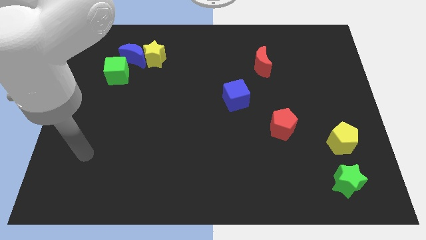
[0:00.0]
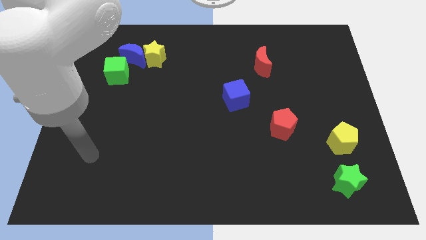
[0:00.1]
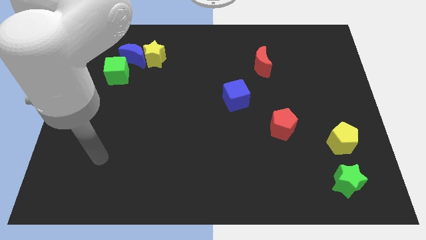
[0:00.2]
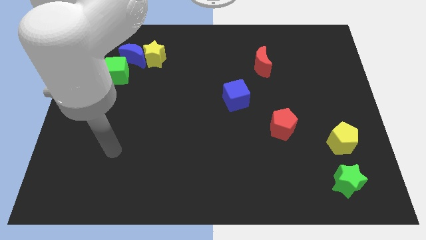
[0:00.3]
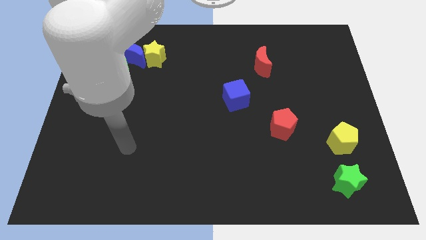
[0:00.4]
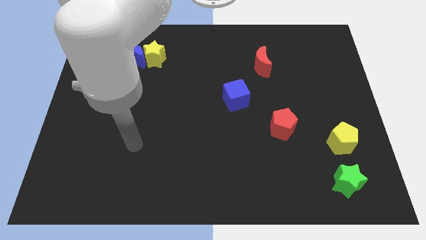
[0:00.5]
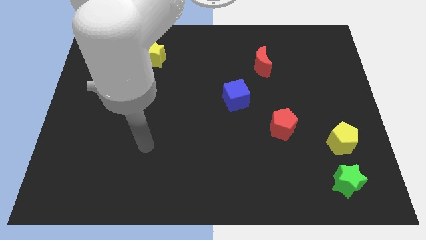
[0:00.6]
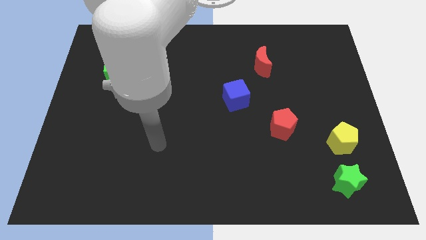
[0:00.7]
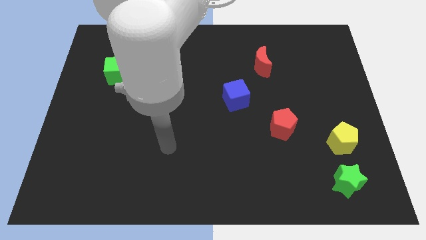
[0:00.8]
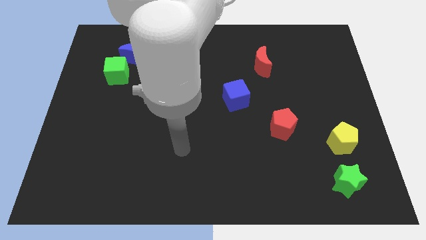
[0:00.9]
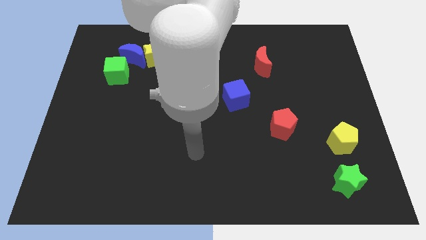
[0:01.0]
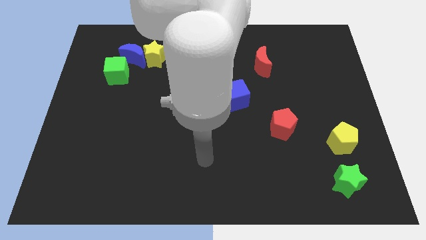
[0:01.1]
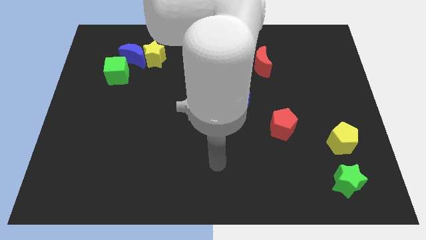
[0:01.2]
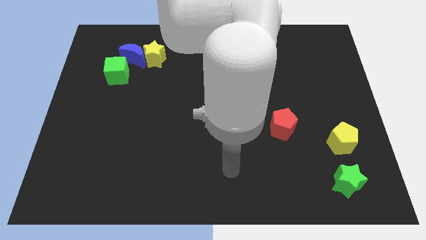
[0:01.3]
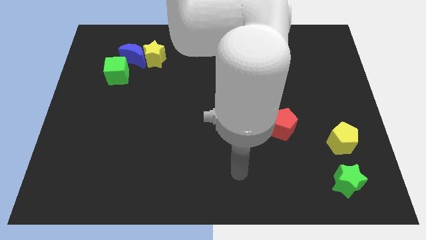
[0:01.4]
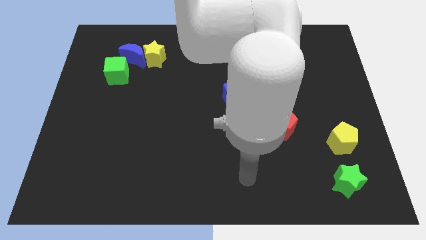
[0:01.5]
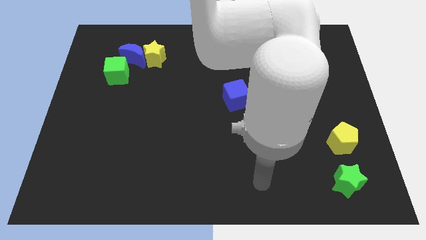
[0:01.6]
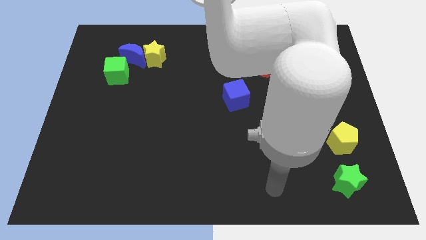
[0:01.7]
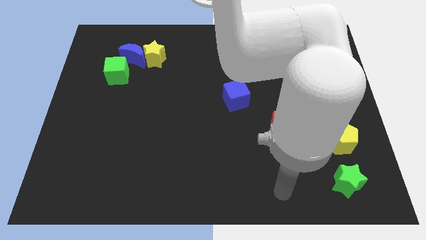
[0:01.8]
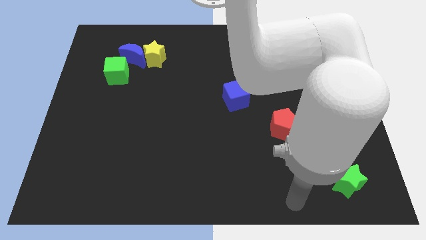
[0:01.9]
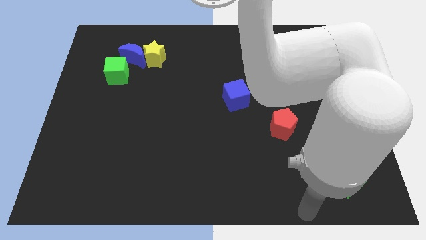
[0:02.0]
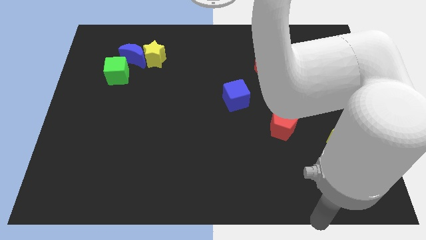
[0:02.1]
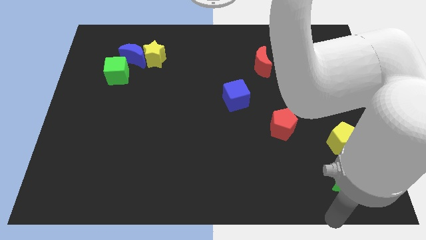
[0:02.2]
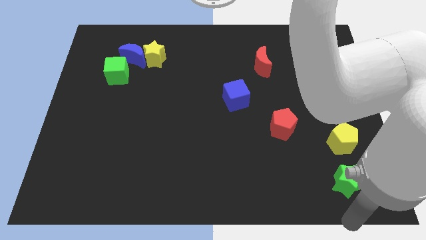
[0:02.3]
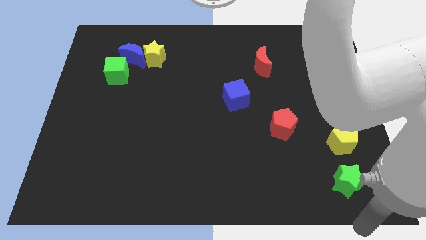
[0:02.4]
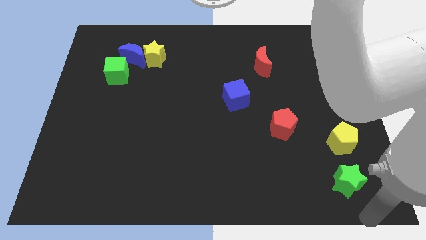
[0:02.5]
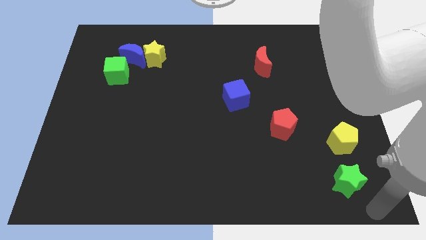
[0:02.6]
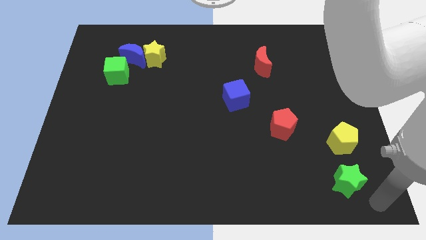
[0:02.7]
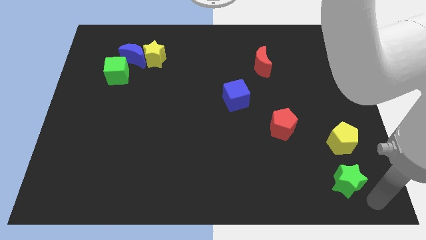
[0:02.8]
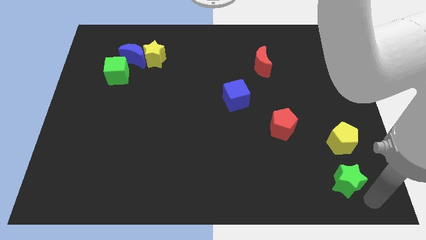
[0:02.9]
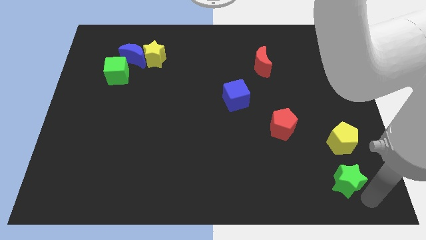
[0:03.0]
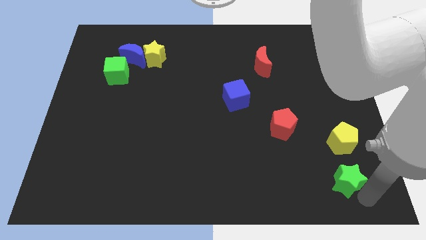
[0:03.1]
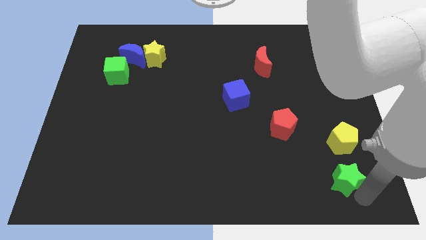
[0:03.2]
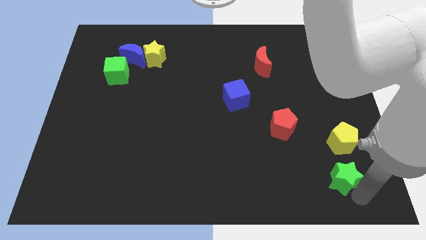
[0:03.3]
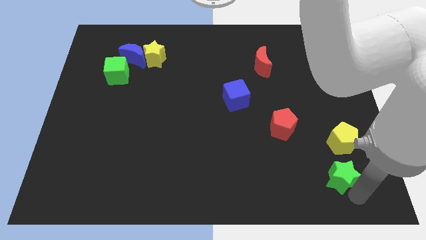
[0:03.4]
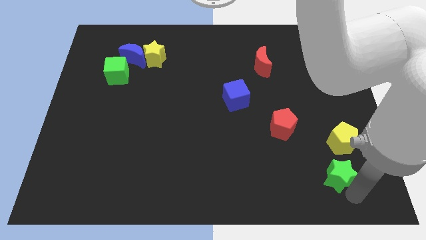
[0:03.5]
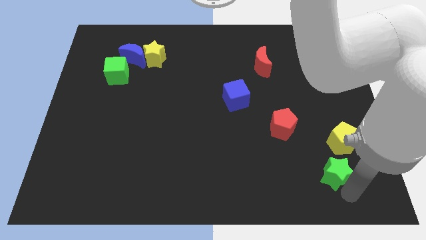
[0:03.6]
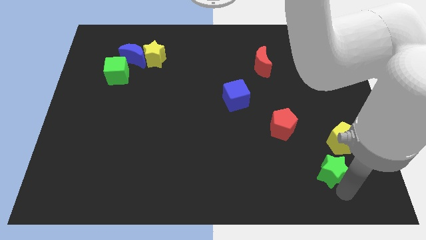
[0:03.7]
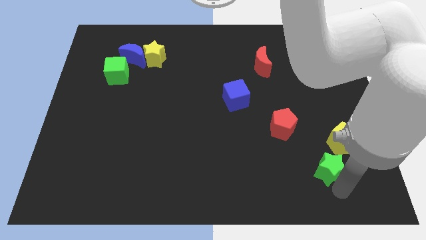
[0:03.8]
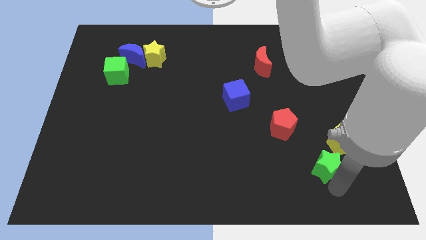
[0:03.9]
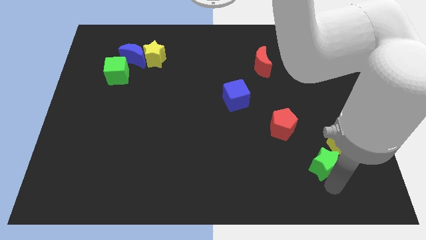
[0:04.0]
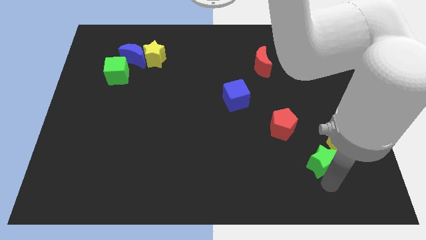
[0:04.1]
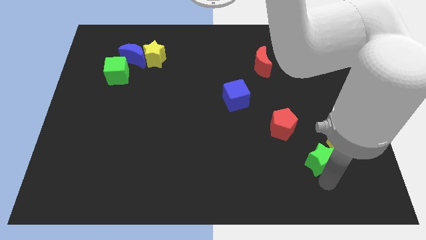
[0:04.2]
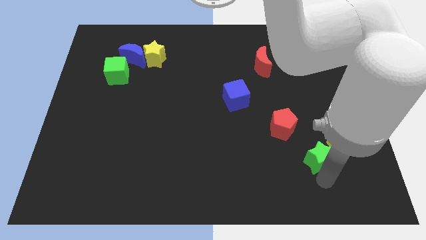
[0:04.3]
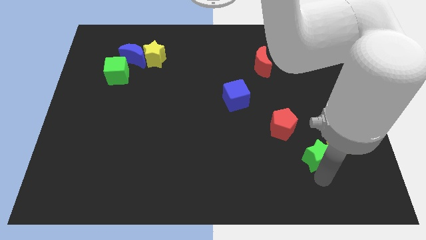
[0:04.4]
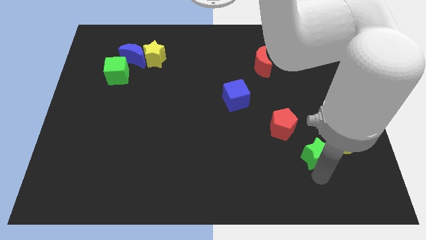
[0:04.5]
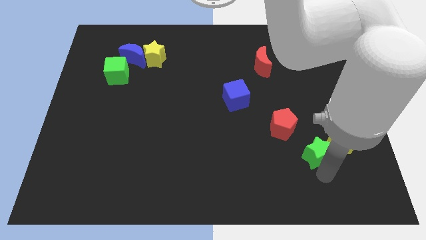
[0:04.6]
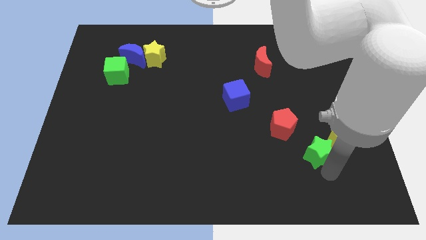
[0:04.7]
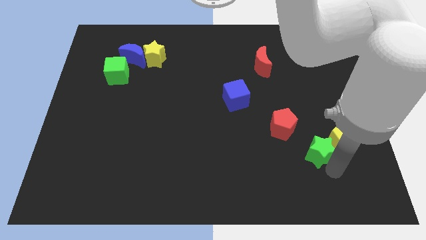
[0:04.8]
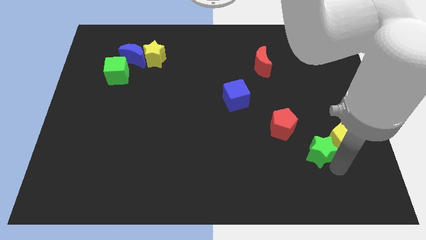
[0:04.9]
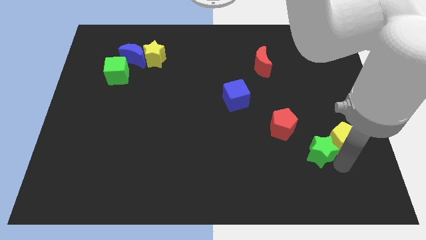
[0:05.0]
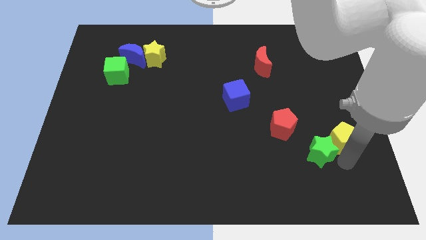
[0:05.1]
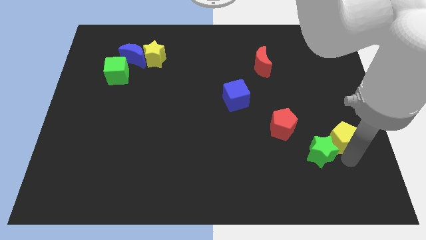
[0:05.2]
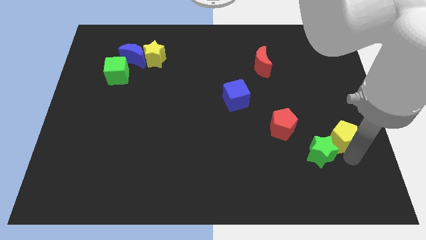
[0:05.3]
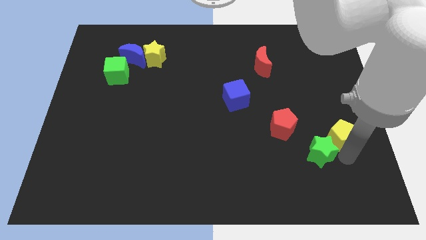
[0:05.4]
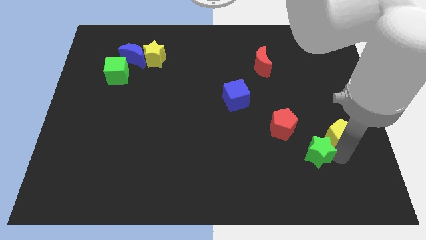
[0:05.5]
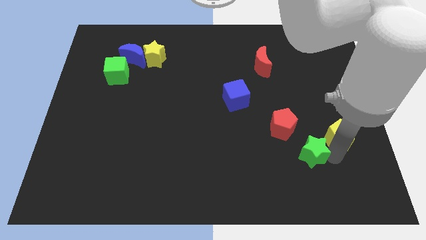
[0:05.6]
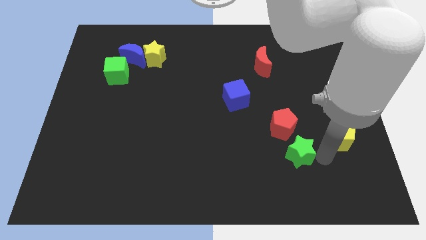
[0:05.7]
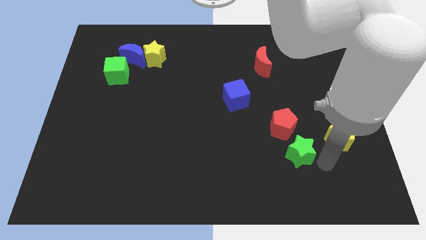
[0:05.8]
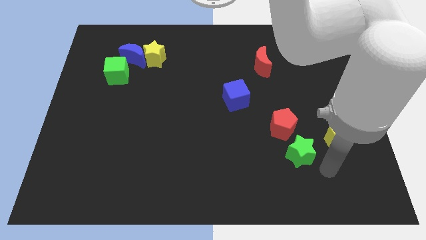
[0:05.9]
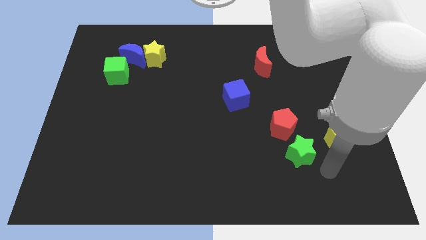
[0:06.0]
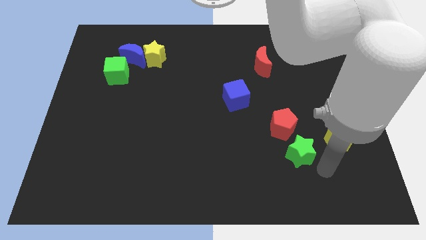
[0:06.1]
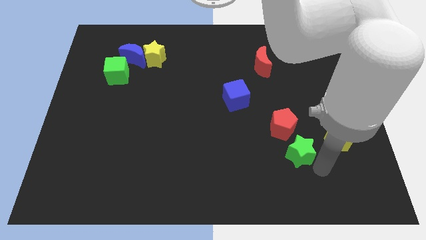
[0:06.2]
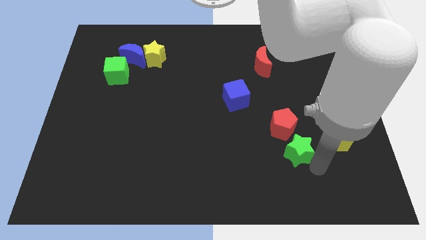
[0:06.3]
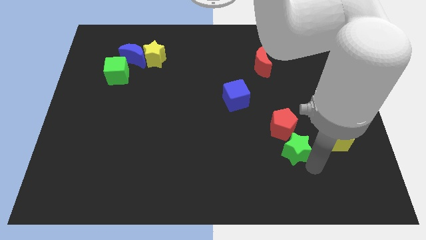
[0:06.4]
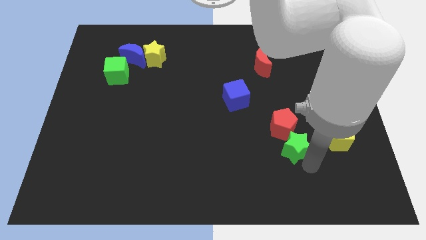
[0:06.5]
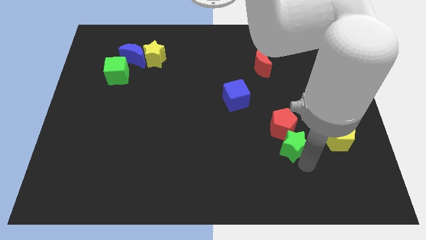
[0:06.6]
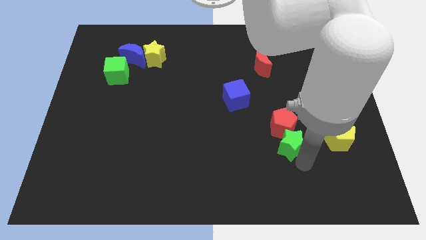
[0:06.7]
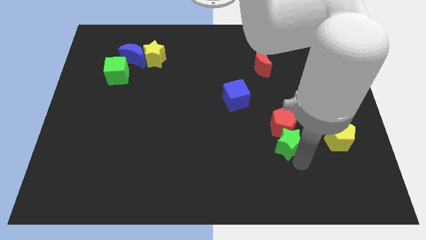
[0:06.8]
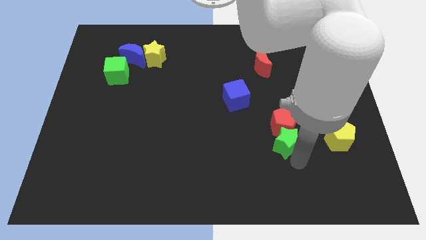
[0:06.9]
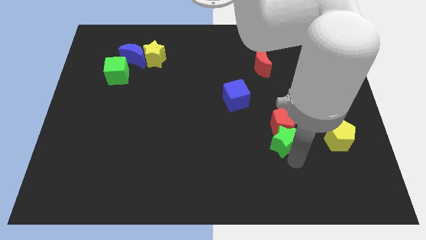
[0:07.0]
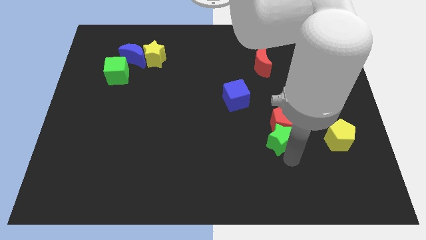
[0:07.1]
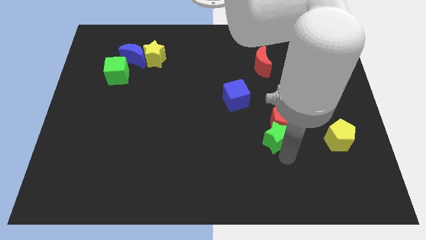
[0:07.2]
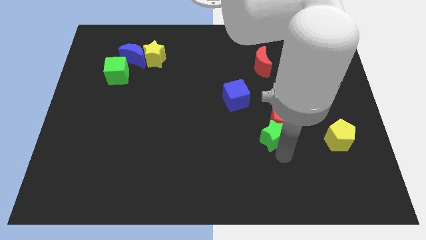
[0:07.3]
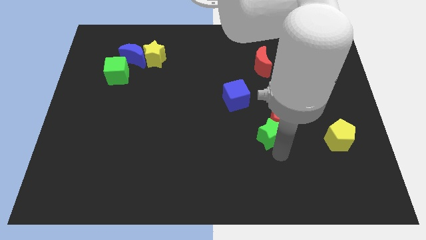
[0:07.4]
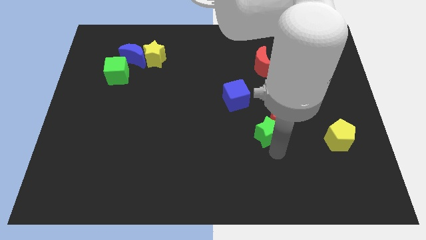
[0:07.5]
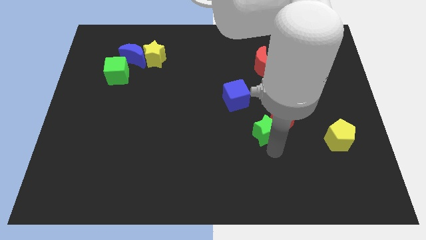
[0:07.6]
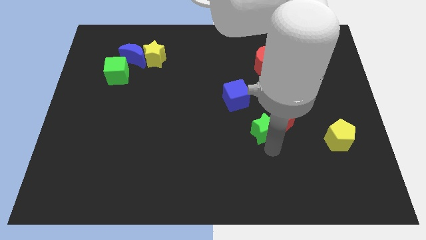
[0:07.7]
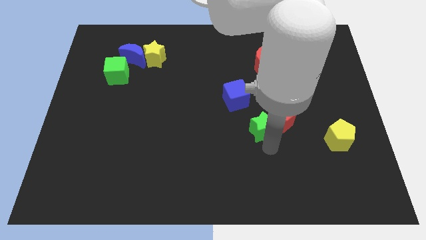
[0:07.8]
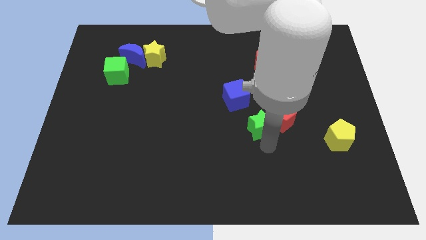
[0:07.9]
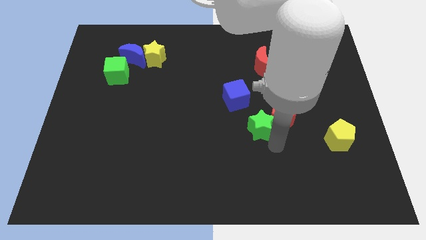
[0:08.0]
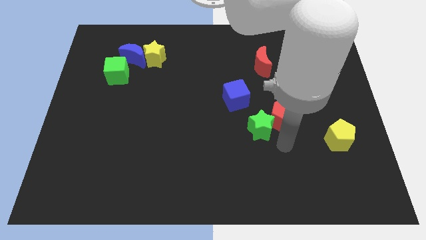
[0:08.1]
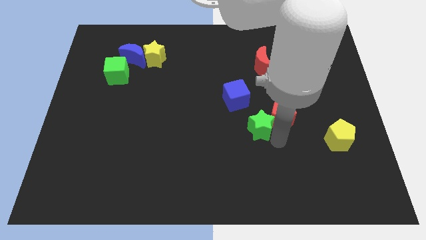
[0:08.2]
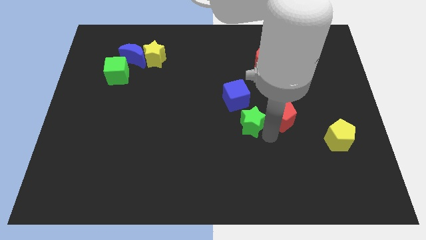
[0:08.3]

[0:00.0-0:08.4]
move the green star to the center
